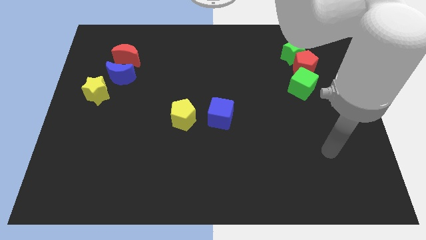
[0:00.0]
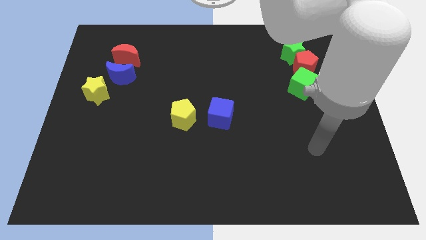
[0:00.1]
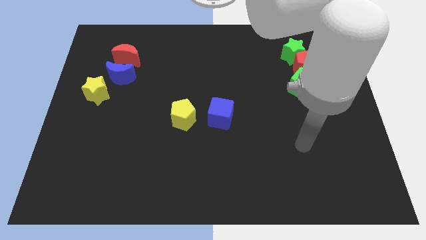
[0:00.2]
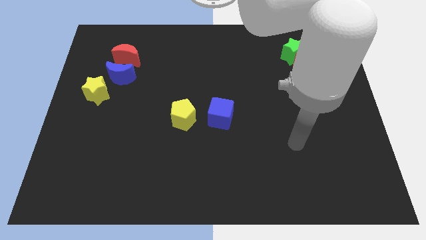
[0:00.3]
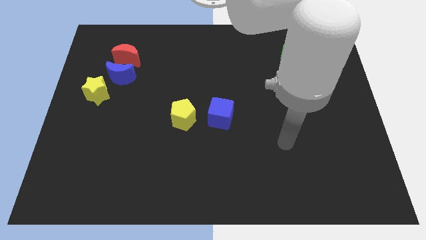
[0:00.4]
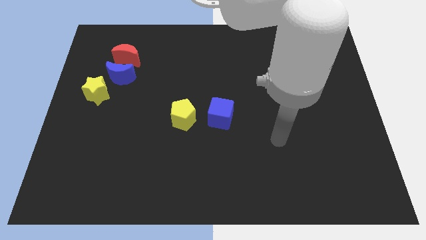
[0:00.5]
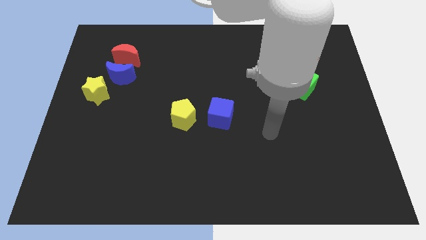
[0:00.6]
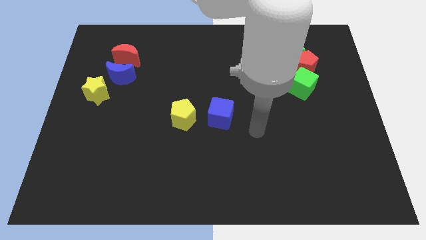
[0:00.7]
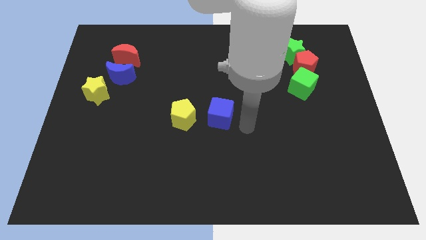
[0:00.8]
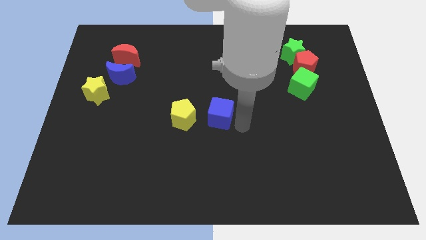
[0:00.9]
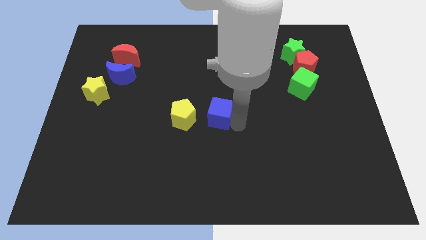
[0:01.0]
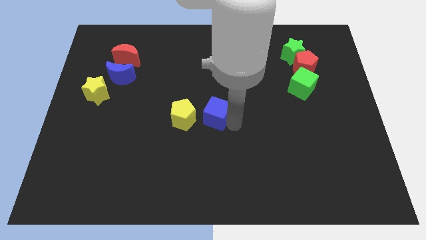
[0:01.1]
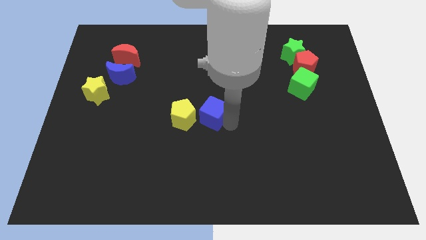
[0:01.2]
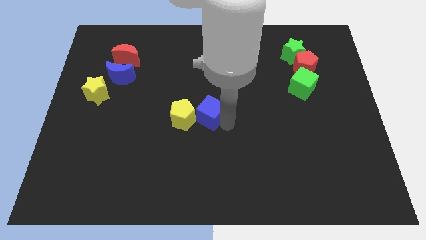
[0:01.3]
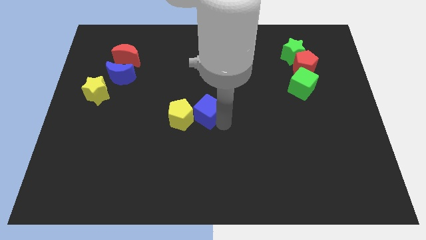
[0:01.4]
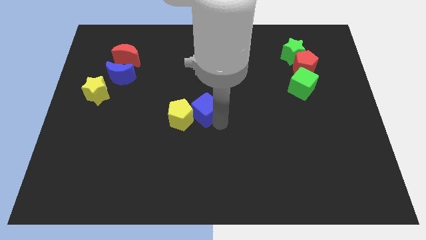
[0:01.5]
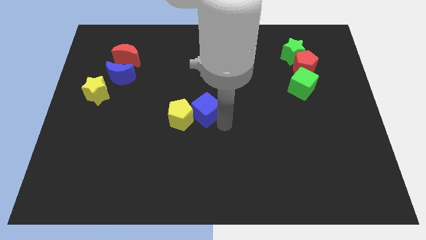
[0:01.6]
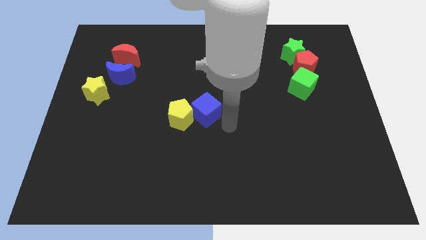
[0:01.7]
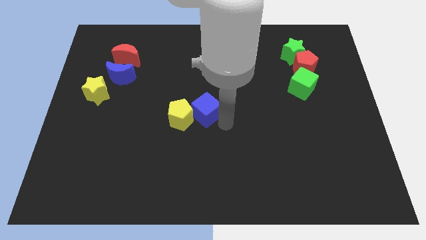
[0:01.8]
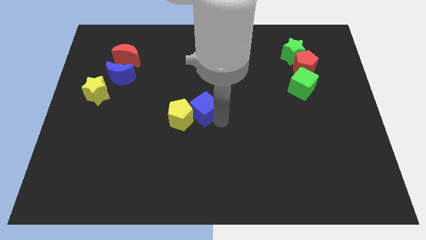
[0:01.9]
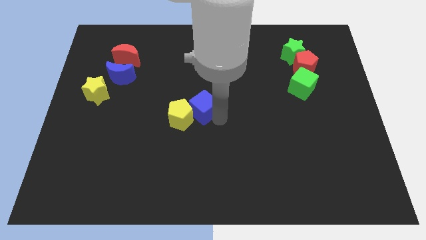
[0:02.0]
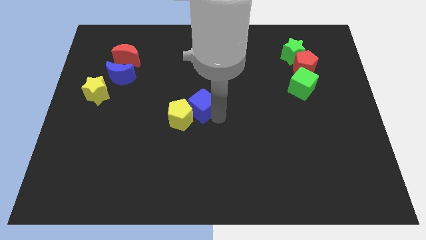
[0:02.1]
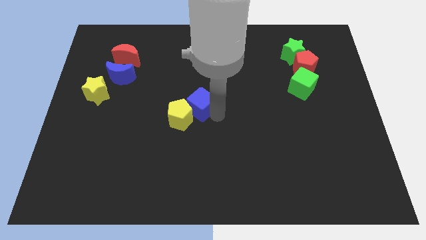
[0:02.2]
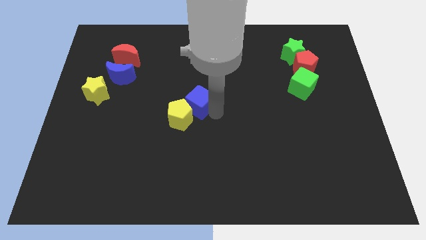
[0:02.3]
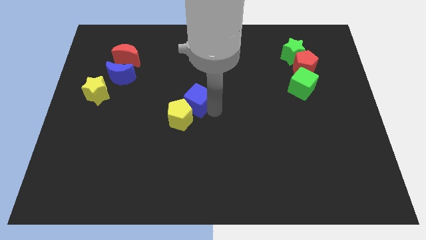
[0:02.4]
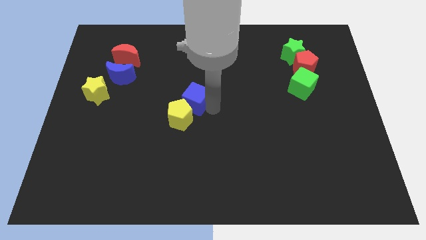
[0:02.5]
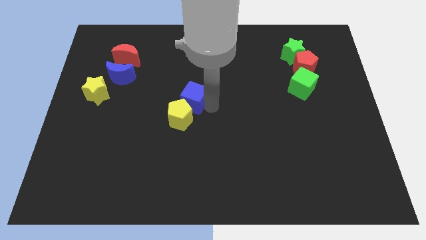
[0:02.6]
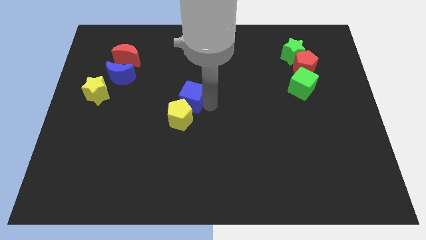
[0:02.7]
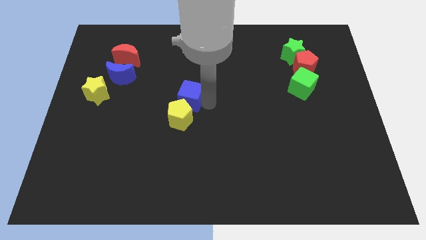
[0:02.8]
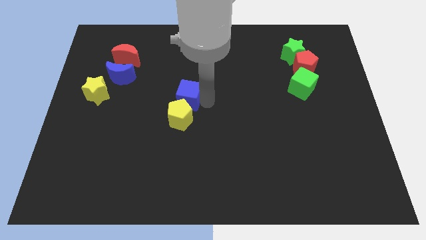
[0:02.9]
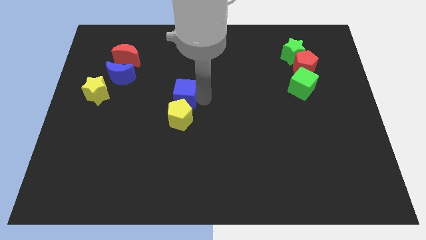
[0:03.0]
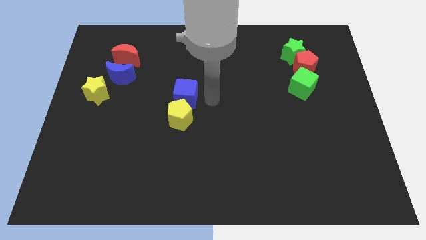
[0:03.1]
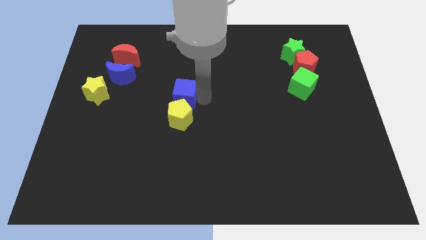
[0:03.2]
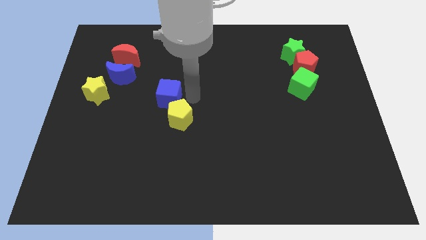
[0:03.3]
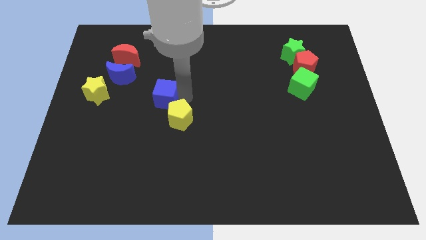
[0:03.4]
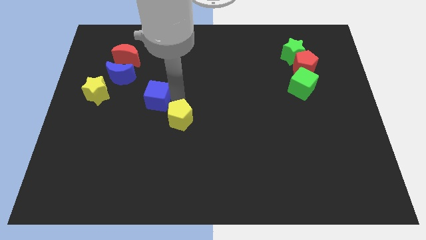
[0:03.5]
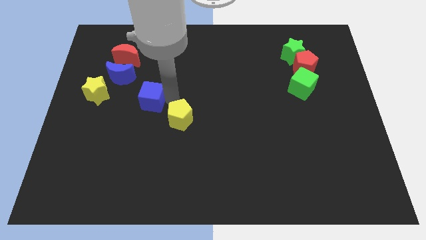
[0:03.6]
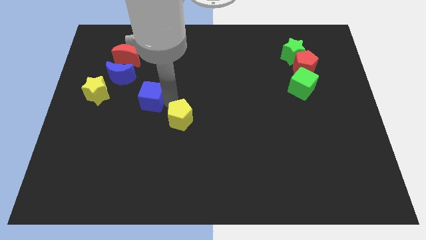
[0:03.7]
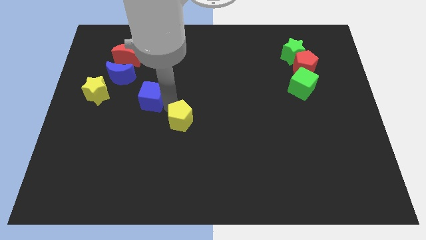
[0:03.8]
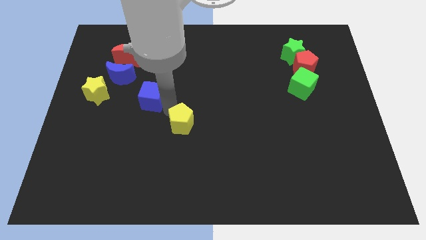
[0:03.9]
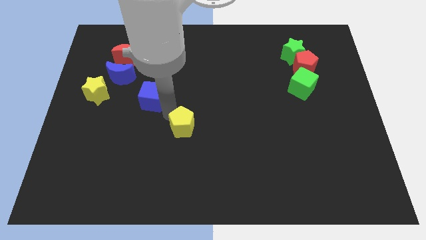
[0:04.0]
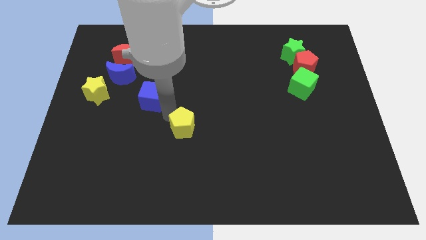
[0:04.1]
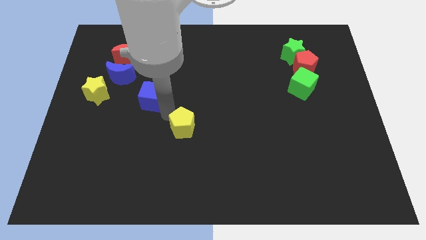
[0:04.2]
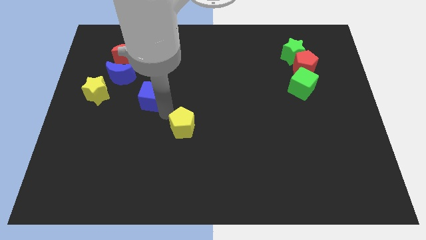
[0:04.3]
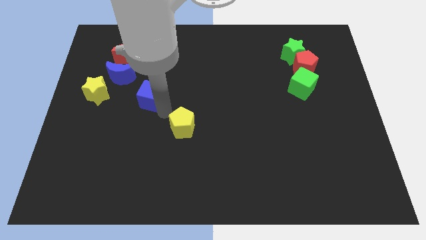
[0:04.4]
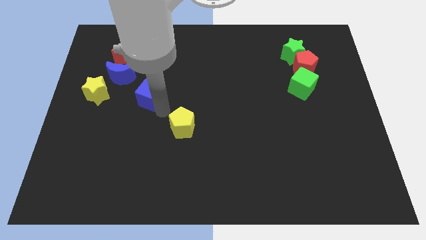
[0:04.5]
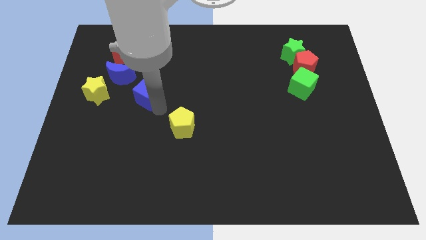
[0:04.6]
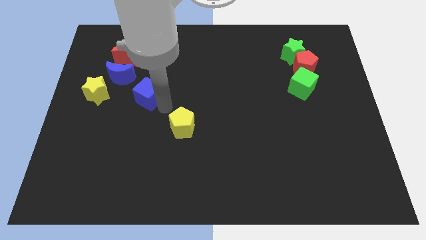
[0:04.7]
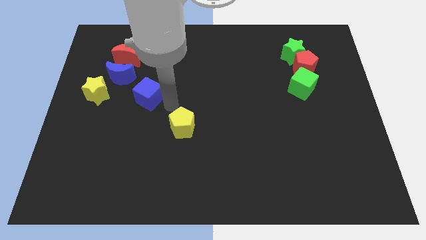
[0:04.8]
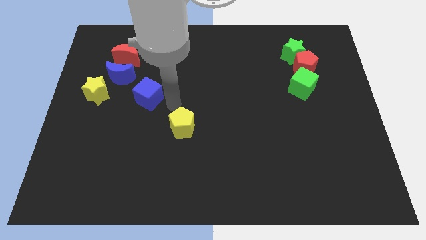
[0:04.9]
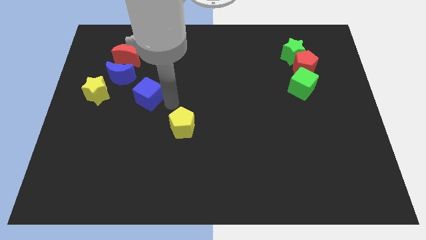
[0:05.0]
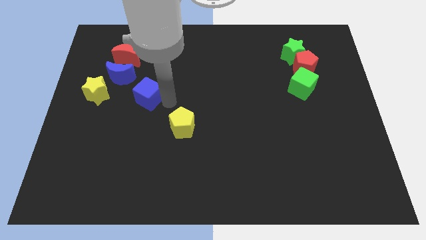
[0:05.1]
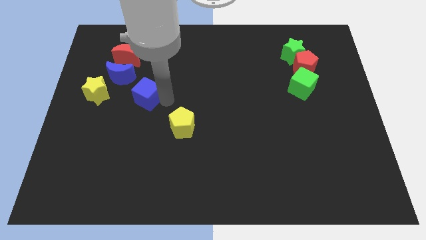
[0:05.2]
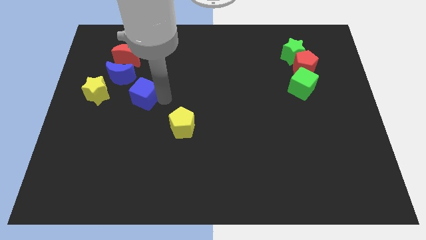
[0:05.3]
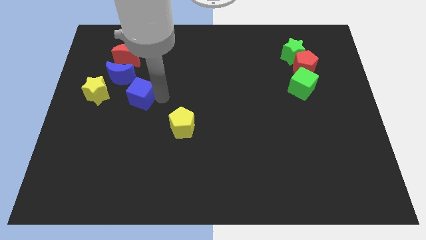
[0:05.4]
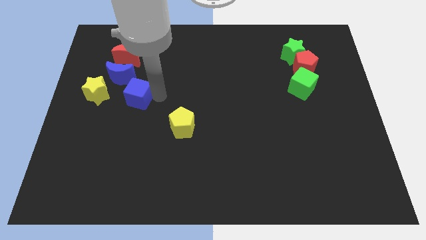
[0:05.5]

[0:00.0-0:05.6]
push the blue cube below the red moon

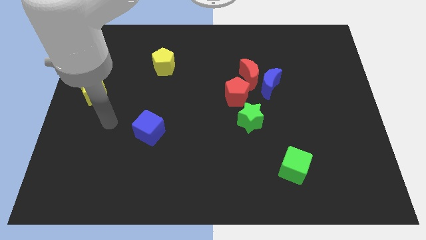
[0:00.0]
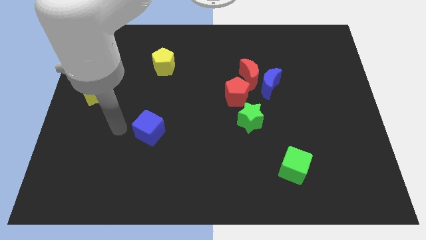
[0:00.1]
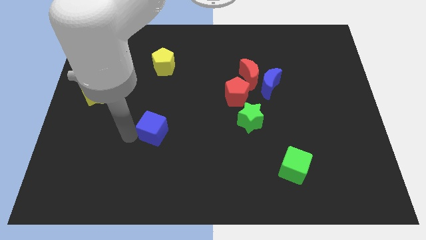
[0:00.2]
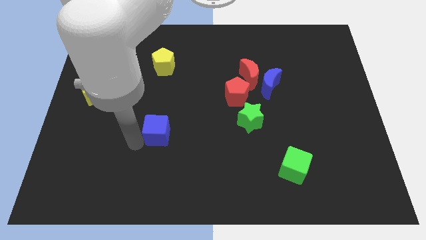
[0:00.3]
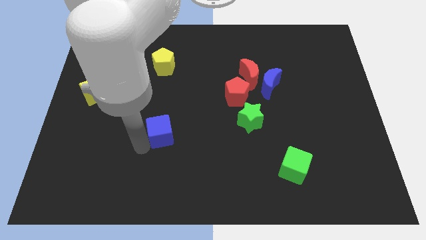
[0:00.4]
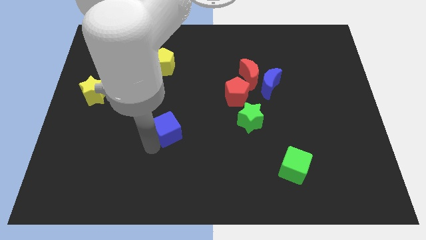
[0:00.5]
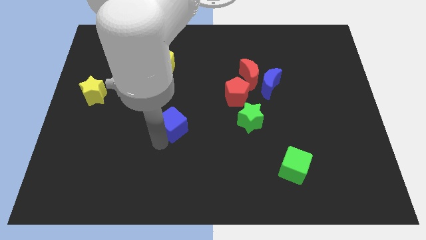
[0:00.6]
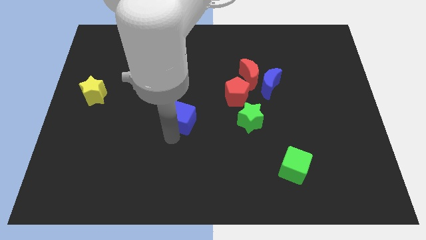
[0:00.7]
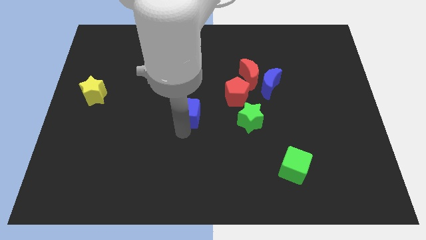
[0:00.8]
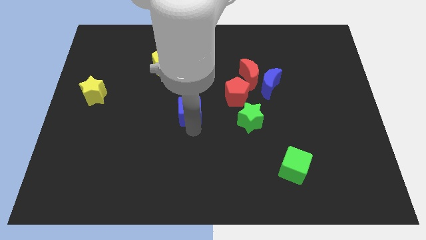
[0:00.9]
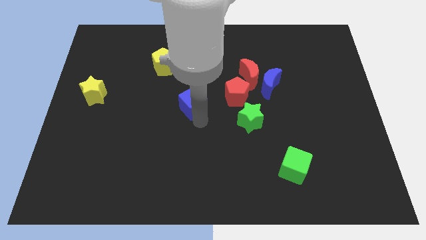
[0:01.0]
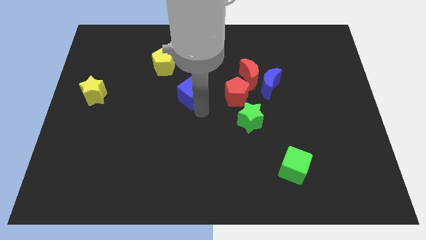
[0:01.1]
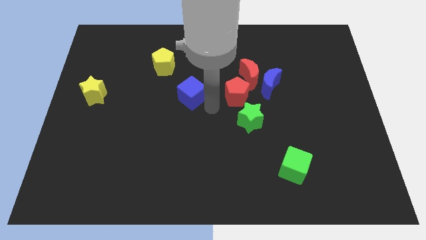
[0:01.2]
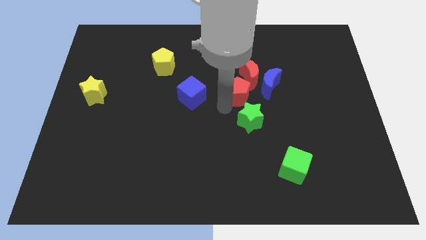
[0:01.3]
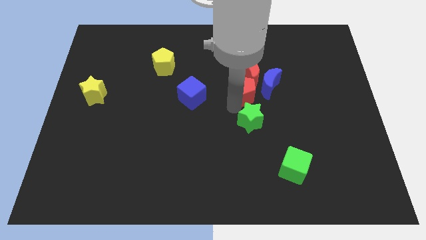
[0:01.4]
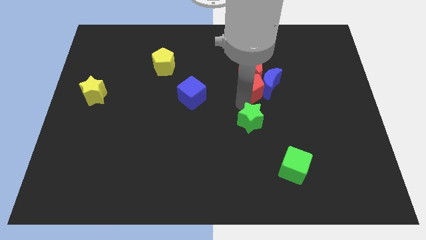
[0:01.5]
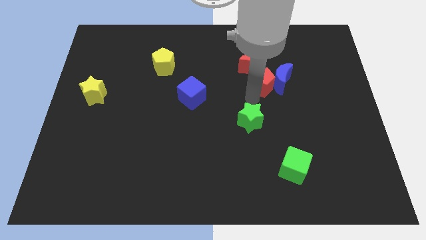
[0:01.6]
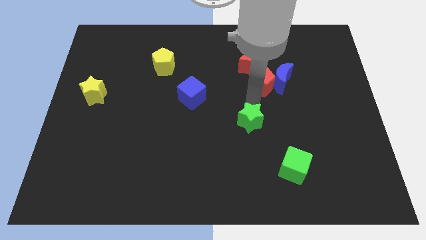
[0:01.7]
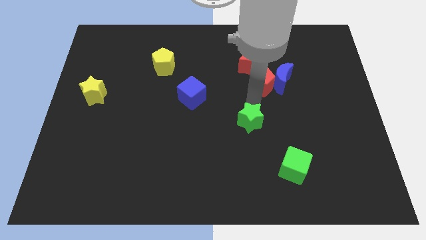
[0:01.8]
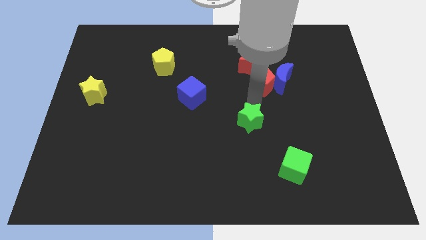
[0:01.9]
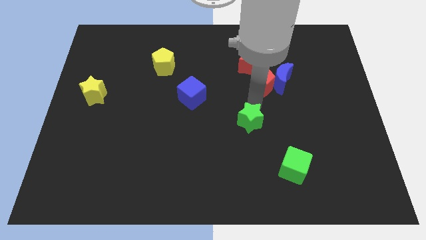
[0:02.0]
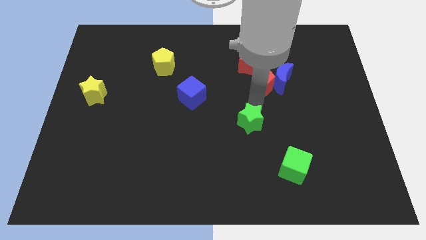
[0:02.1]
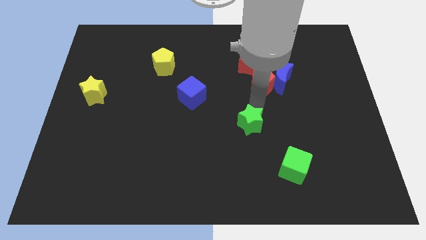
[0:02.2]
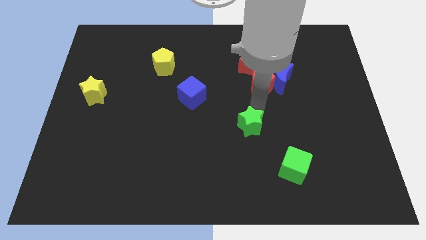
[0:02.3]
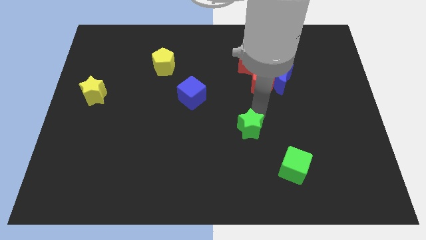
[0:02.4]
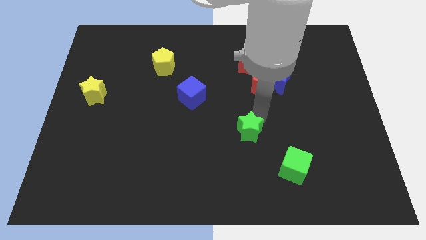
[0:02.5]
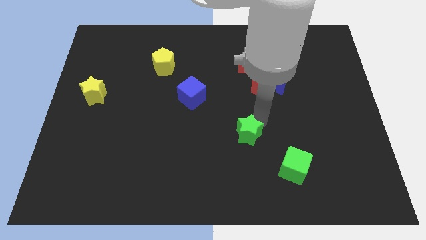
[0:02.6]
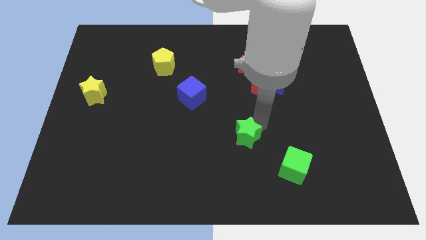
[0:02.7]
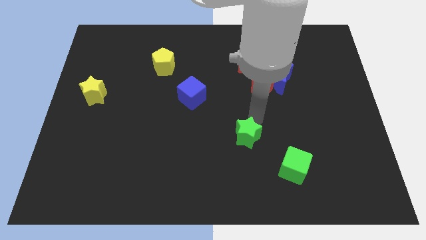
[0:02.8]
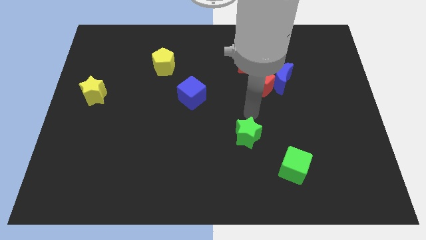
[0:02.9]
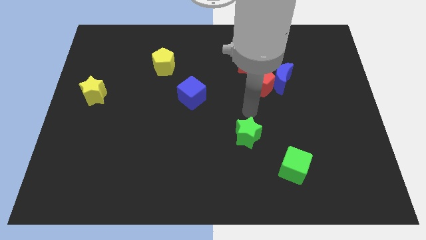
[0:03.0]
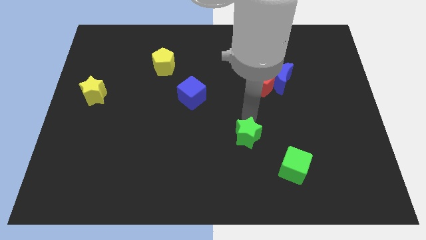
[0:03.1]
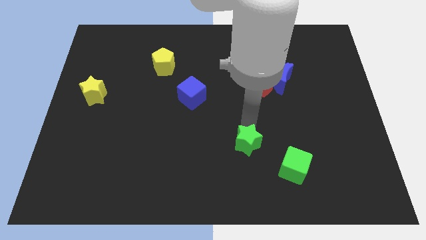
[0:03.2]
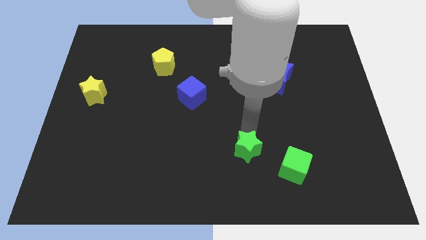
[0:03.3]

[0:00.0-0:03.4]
push the green star left of the green cube
